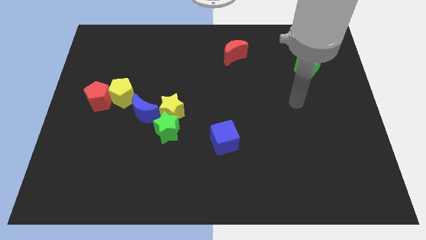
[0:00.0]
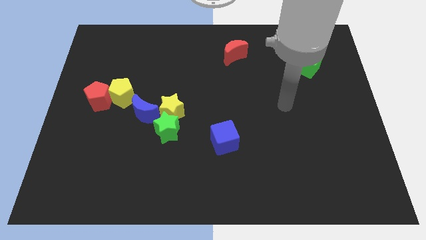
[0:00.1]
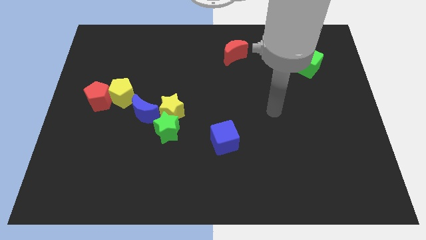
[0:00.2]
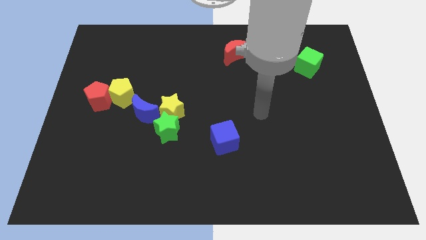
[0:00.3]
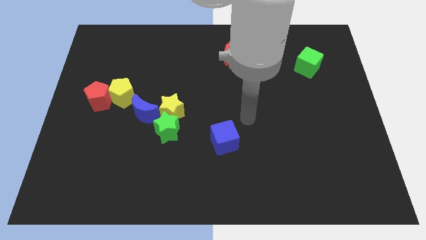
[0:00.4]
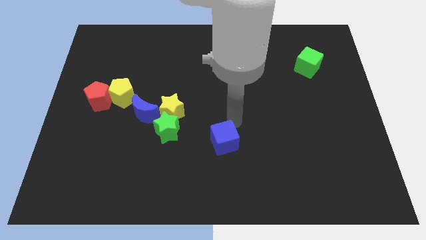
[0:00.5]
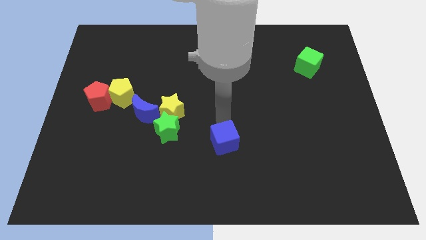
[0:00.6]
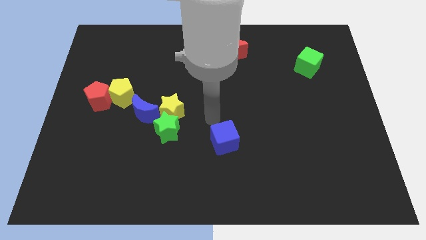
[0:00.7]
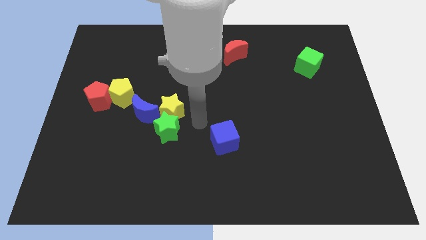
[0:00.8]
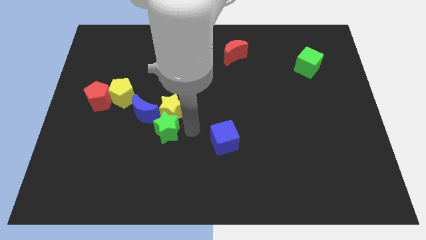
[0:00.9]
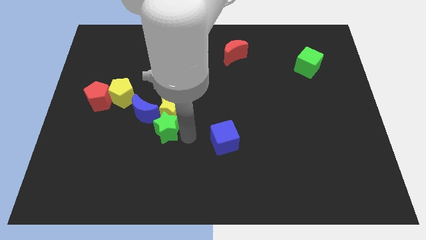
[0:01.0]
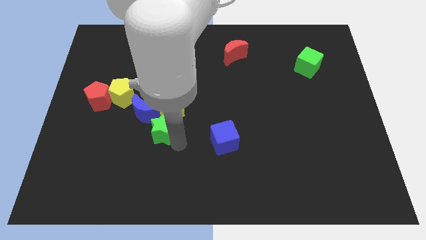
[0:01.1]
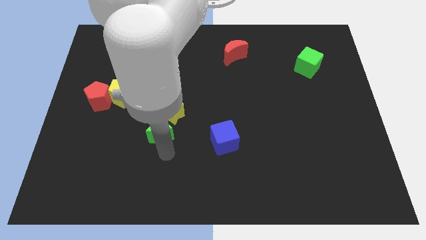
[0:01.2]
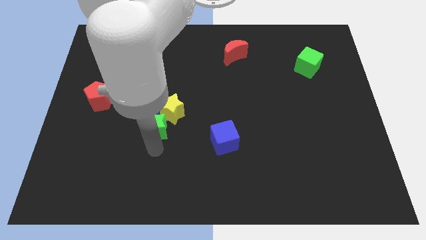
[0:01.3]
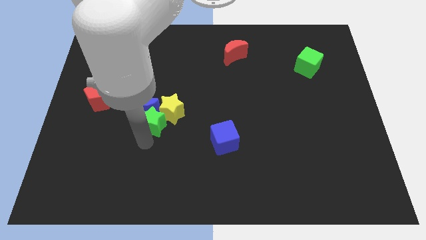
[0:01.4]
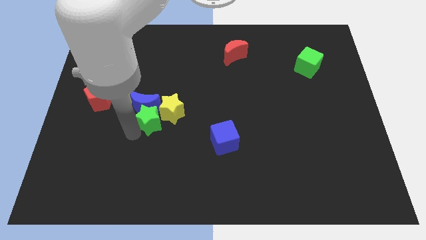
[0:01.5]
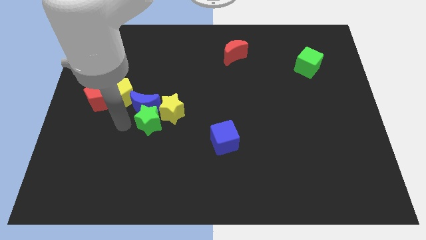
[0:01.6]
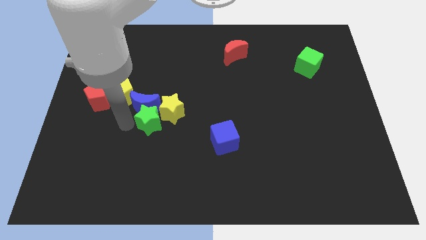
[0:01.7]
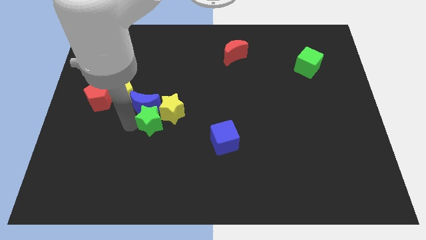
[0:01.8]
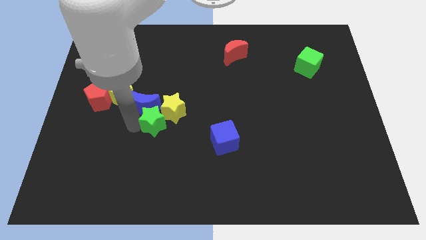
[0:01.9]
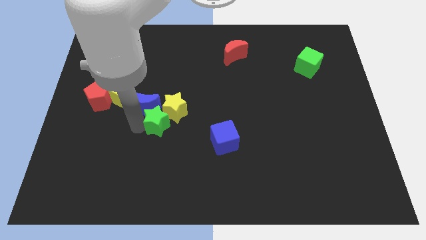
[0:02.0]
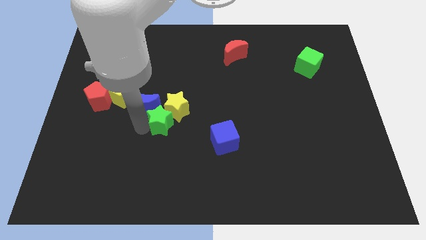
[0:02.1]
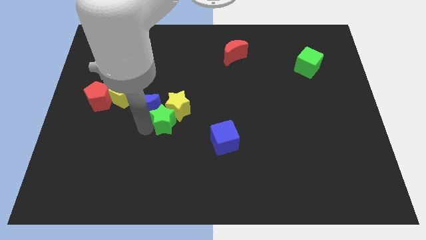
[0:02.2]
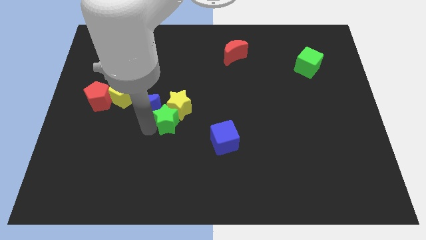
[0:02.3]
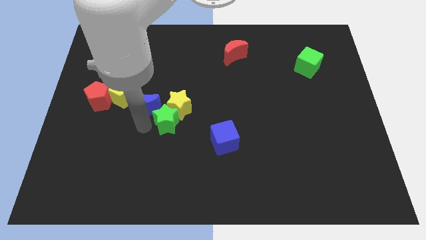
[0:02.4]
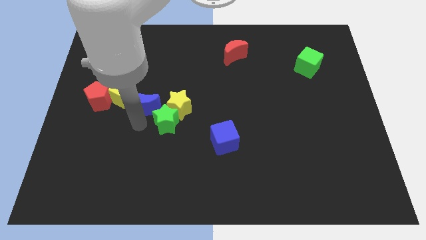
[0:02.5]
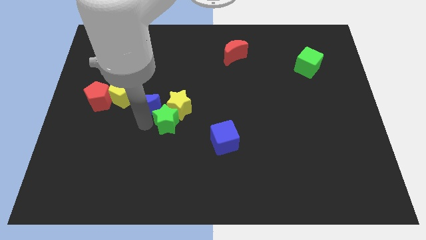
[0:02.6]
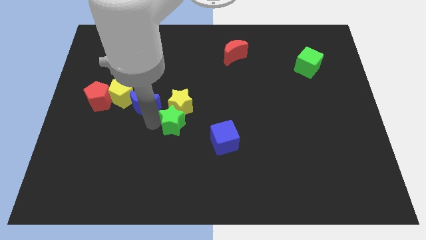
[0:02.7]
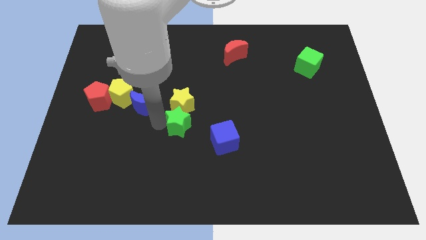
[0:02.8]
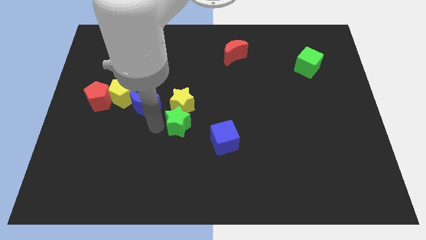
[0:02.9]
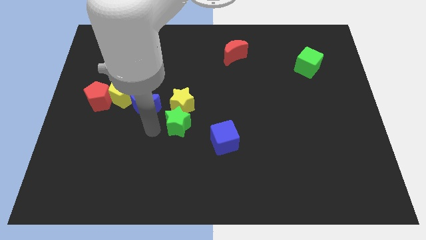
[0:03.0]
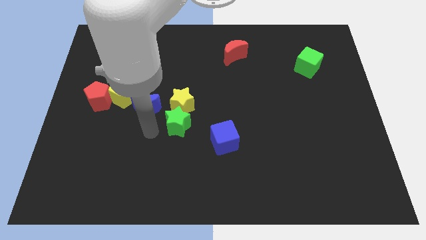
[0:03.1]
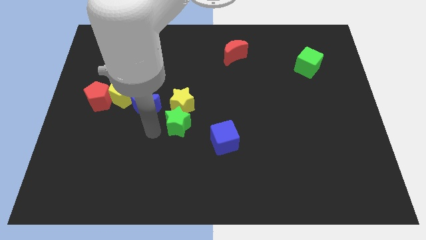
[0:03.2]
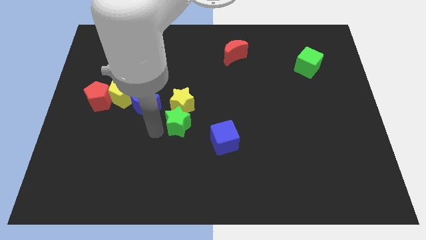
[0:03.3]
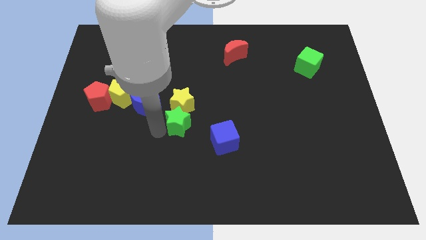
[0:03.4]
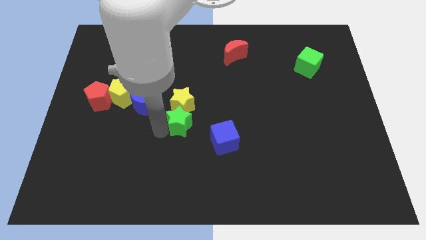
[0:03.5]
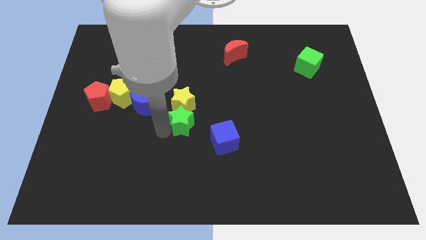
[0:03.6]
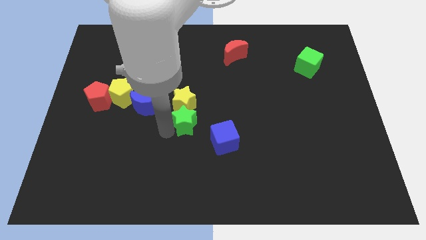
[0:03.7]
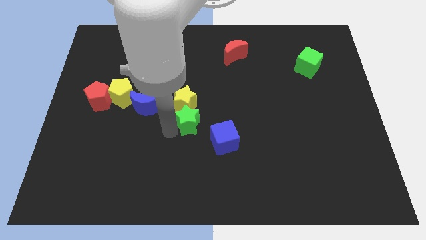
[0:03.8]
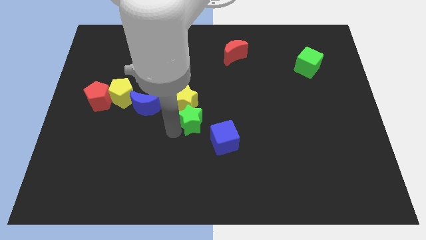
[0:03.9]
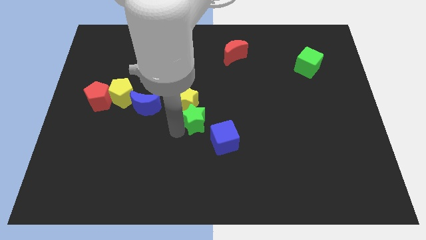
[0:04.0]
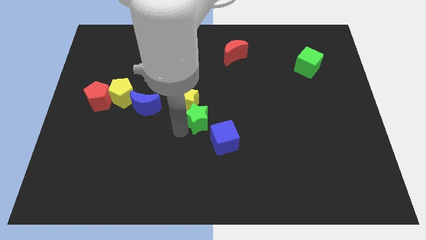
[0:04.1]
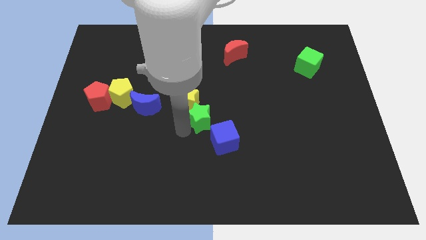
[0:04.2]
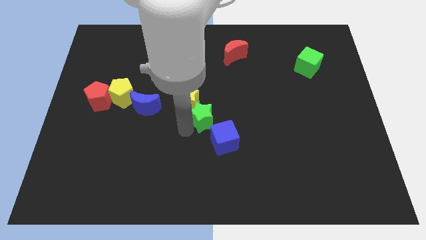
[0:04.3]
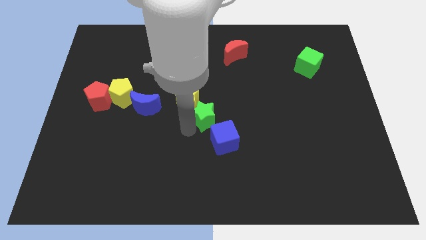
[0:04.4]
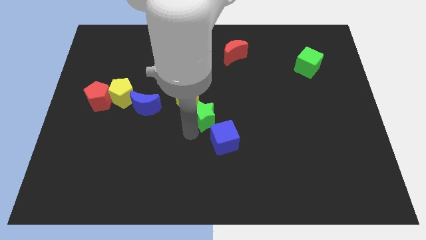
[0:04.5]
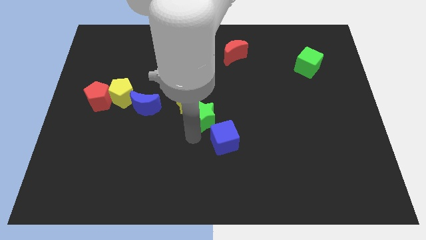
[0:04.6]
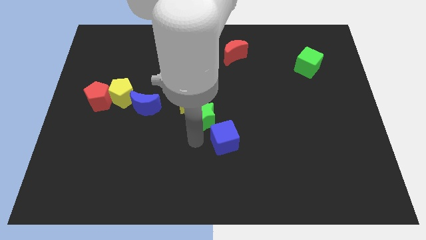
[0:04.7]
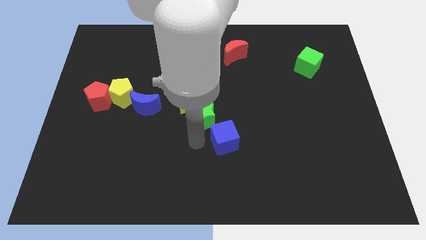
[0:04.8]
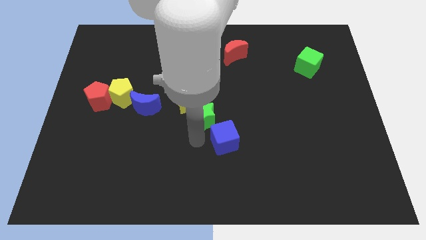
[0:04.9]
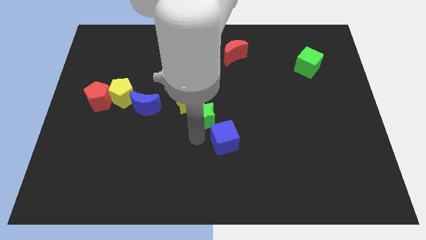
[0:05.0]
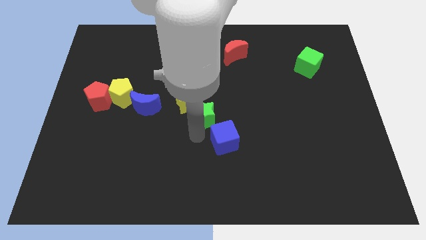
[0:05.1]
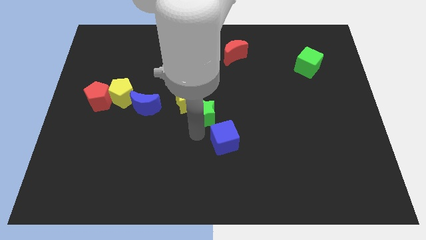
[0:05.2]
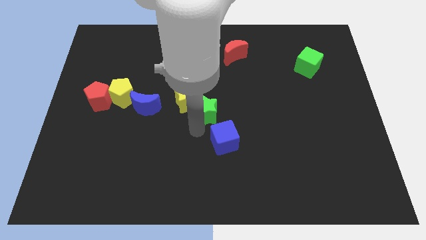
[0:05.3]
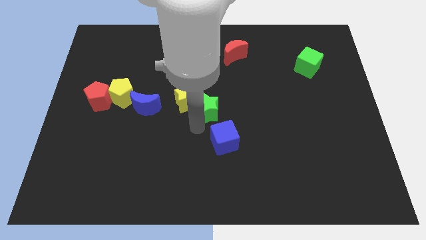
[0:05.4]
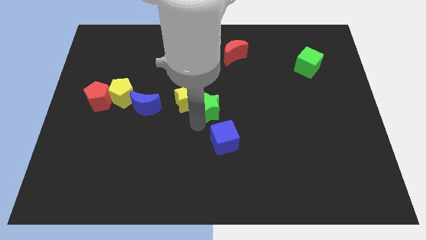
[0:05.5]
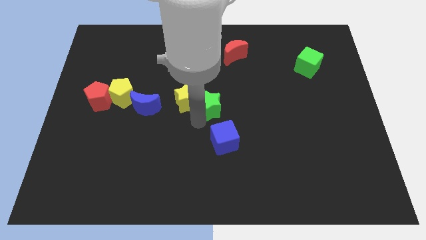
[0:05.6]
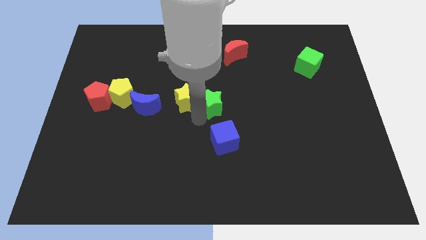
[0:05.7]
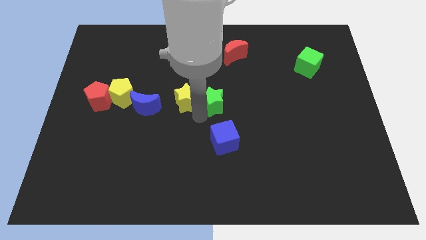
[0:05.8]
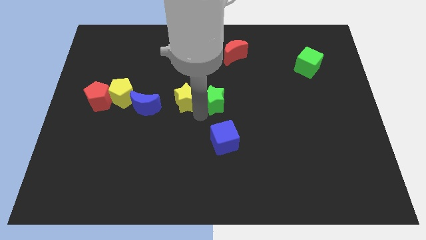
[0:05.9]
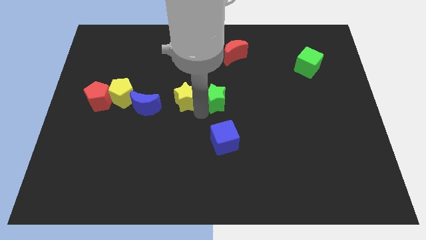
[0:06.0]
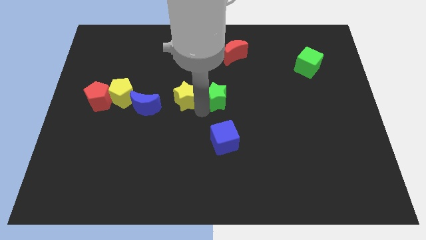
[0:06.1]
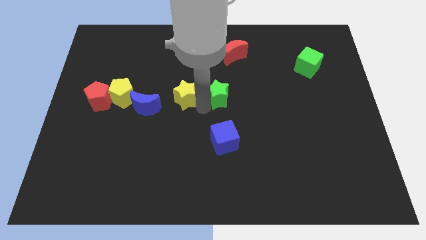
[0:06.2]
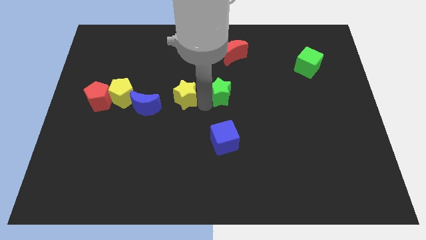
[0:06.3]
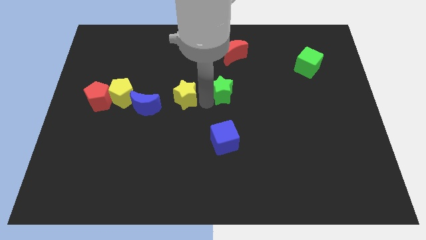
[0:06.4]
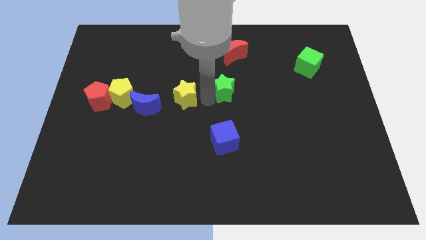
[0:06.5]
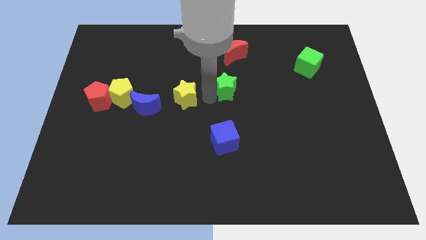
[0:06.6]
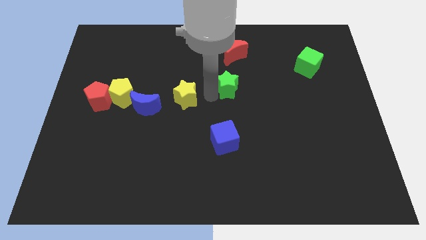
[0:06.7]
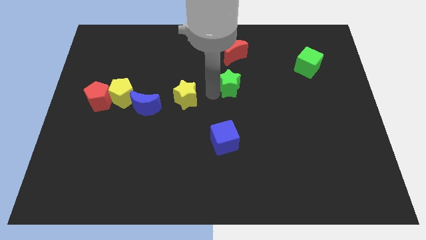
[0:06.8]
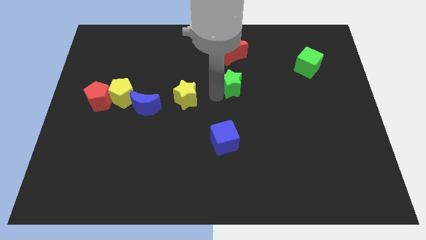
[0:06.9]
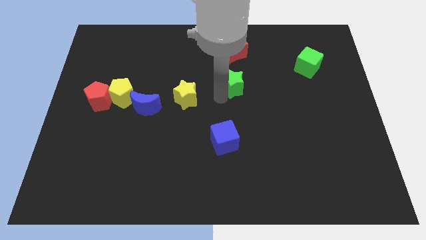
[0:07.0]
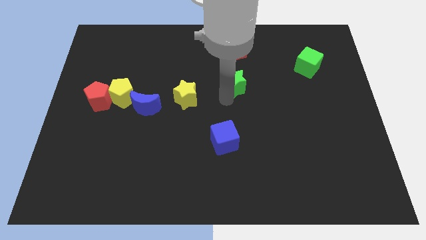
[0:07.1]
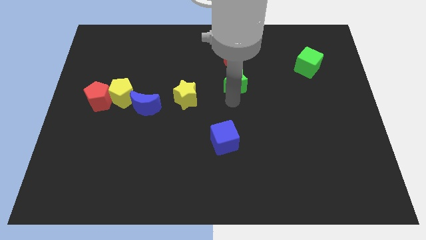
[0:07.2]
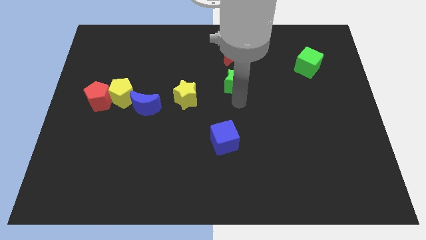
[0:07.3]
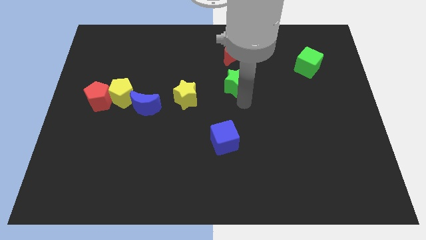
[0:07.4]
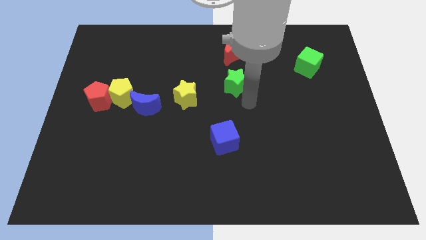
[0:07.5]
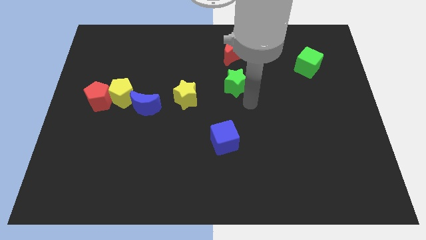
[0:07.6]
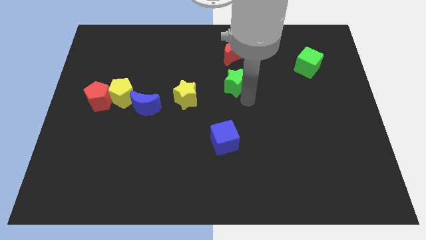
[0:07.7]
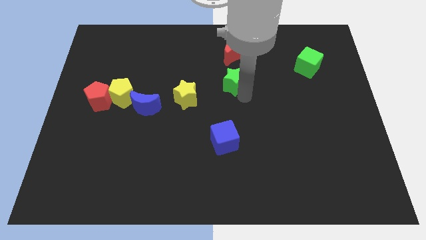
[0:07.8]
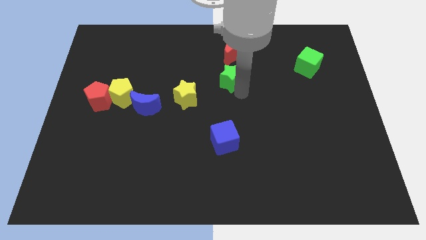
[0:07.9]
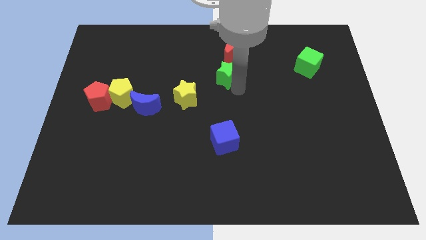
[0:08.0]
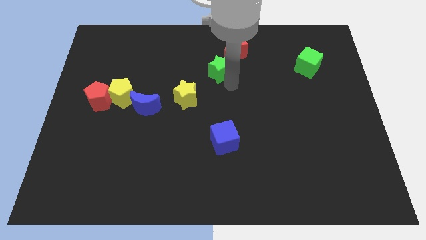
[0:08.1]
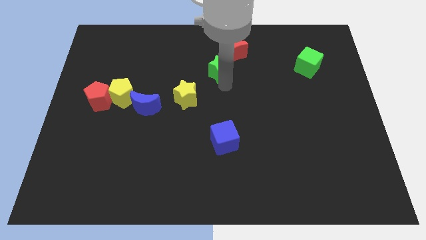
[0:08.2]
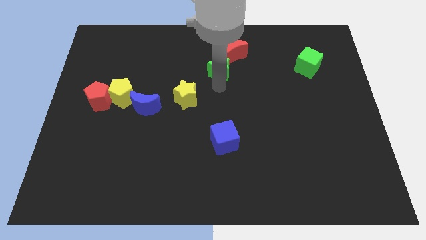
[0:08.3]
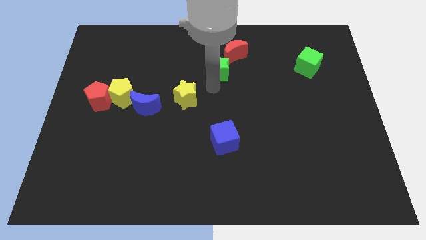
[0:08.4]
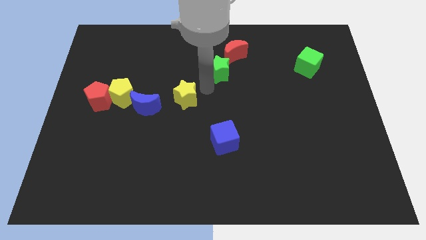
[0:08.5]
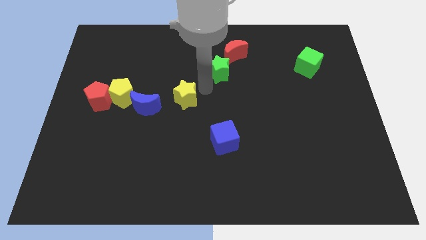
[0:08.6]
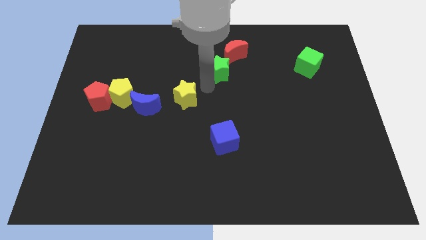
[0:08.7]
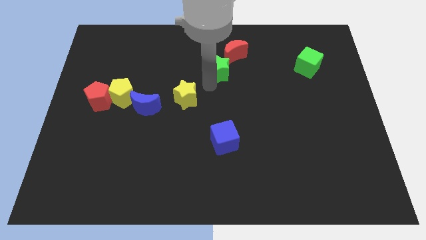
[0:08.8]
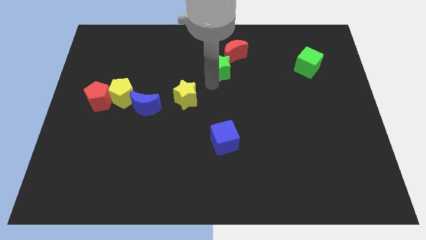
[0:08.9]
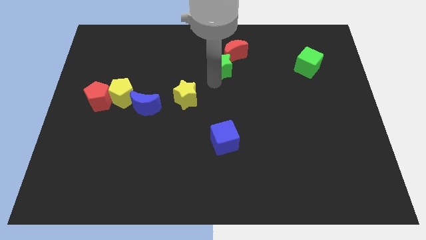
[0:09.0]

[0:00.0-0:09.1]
put the green star to the red moon
